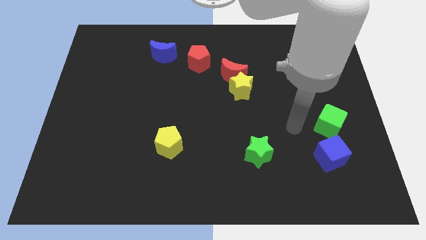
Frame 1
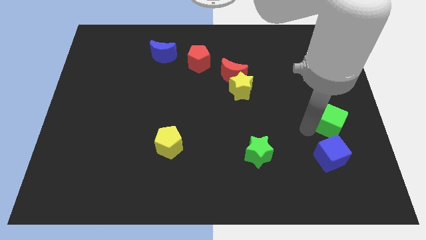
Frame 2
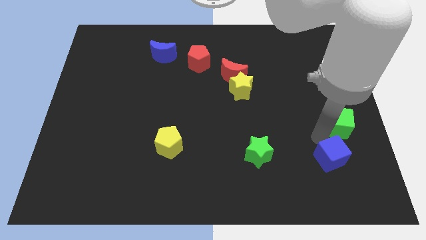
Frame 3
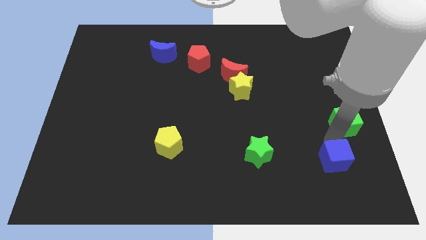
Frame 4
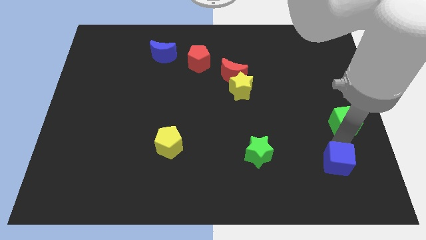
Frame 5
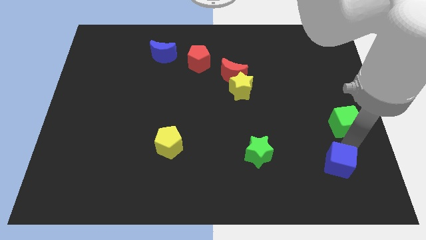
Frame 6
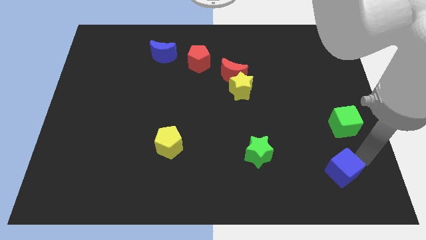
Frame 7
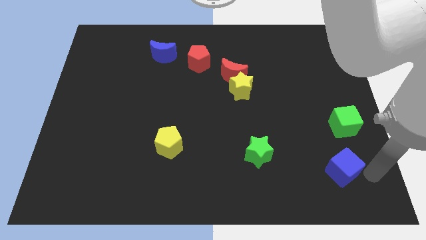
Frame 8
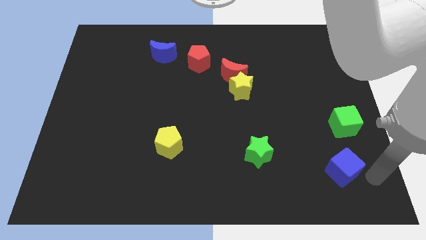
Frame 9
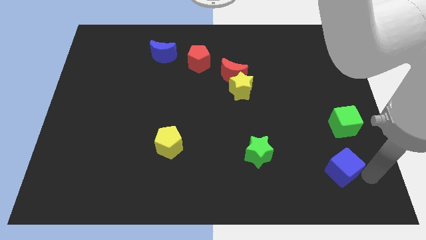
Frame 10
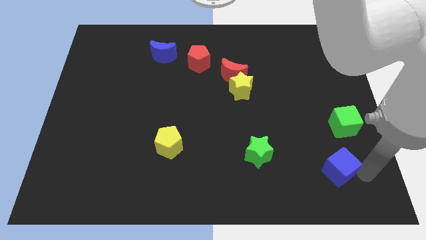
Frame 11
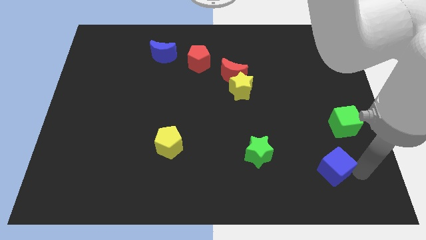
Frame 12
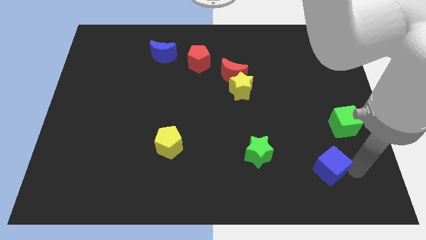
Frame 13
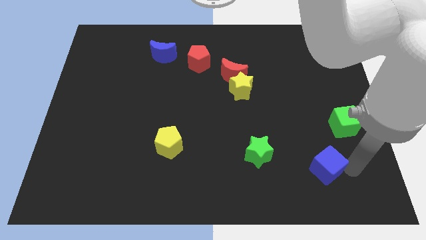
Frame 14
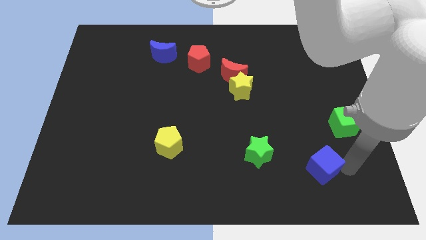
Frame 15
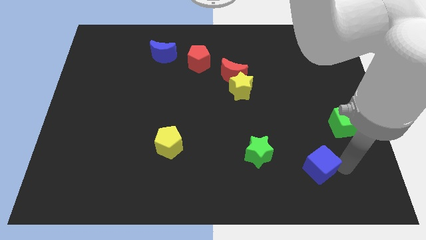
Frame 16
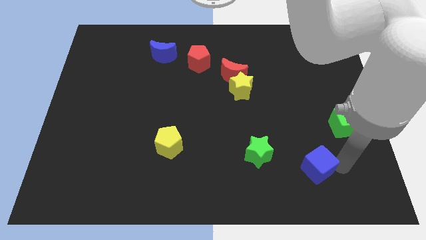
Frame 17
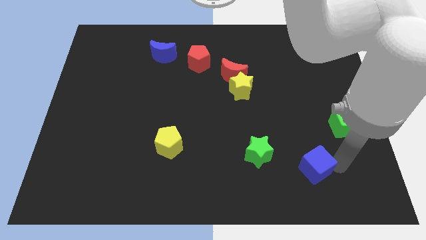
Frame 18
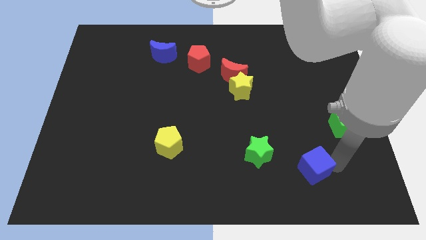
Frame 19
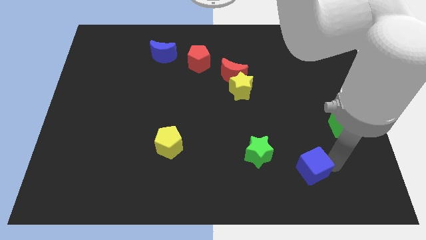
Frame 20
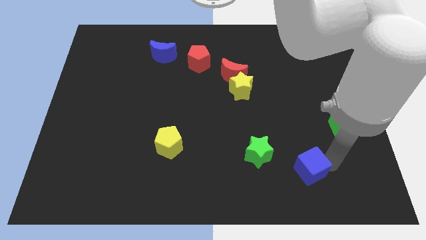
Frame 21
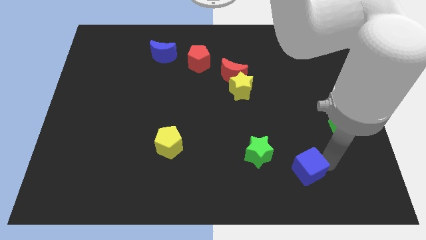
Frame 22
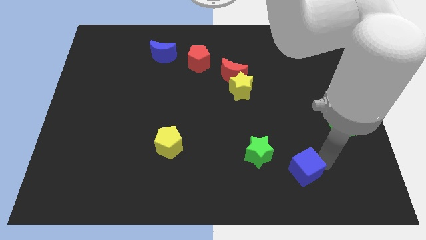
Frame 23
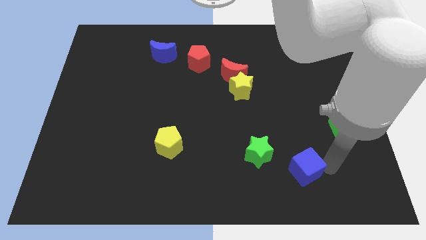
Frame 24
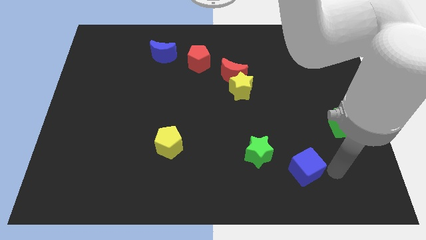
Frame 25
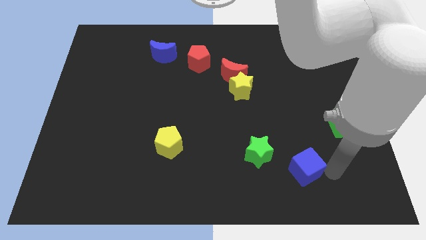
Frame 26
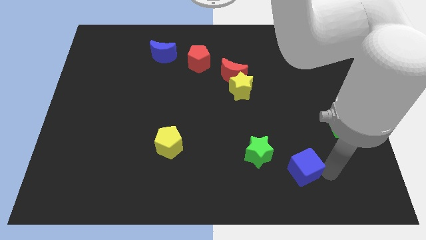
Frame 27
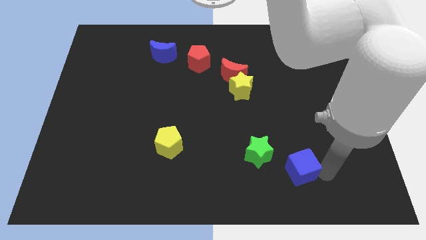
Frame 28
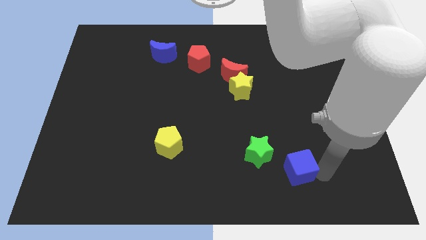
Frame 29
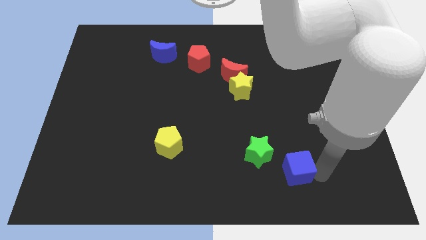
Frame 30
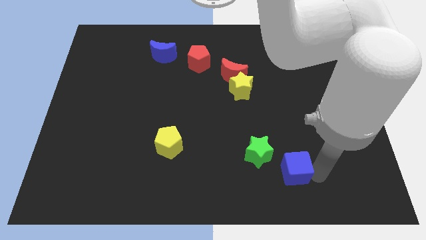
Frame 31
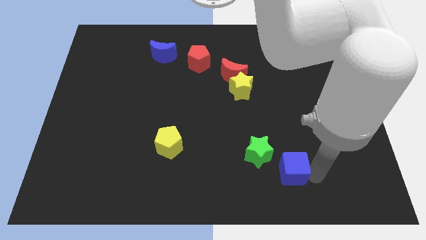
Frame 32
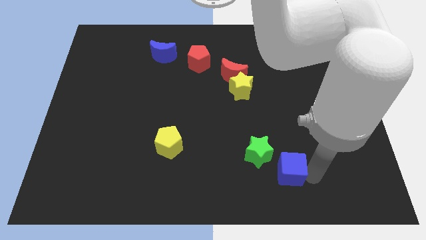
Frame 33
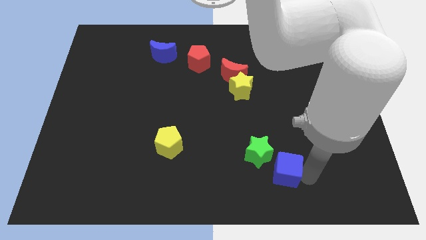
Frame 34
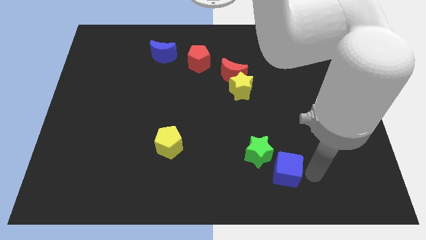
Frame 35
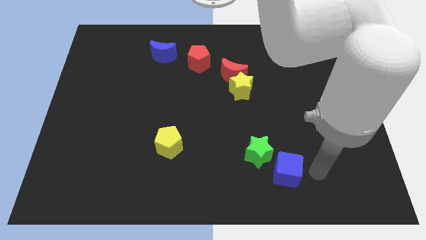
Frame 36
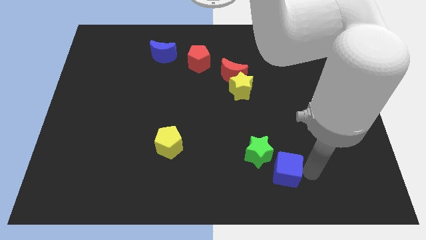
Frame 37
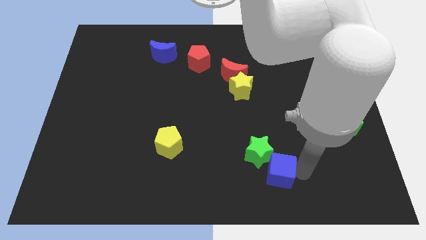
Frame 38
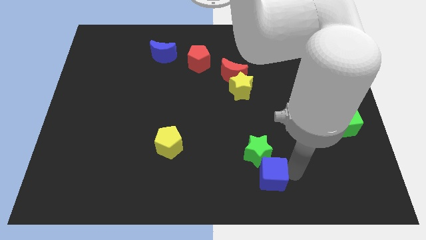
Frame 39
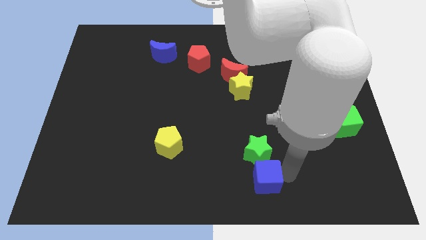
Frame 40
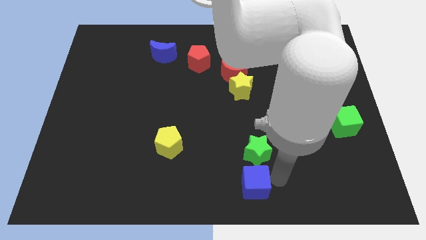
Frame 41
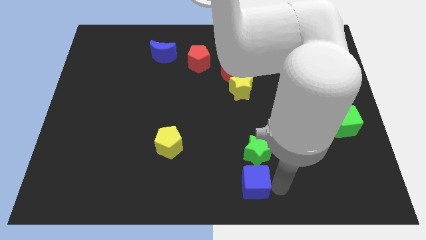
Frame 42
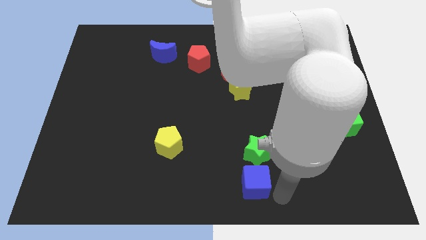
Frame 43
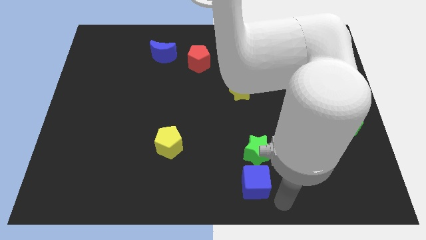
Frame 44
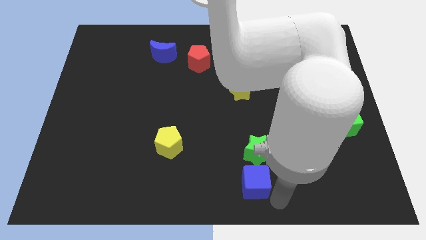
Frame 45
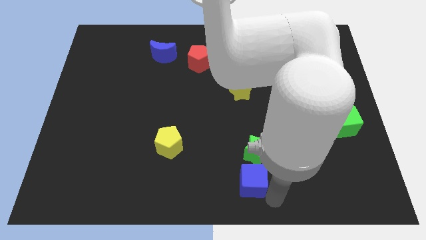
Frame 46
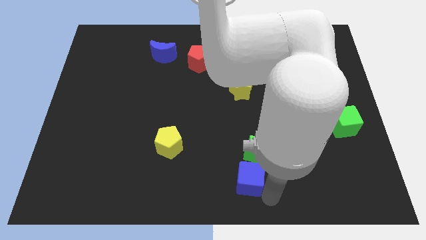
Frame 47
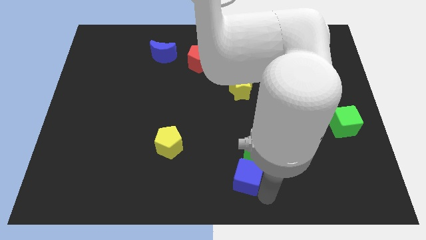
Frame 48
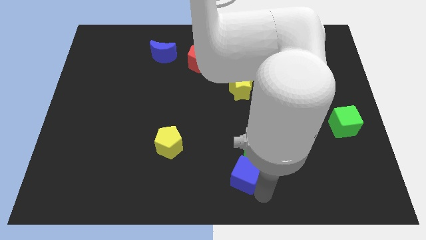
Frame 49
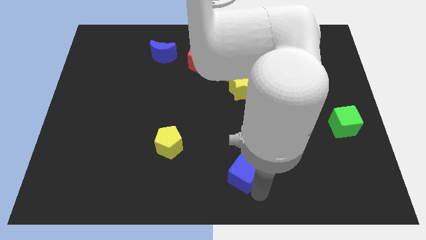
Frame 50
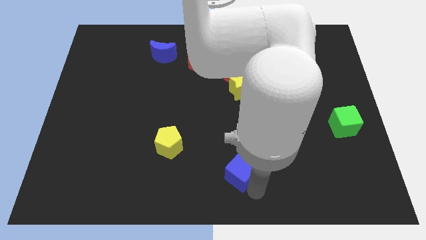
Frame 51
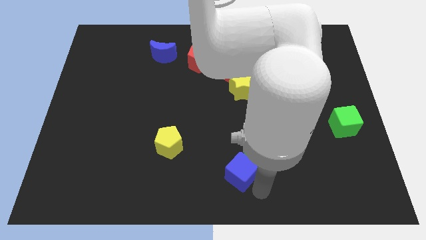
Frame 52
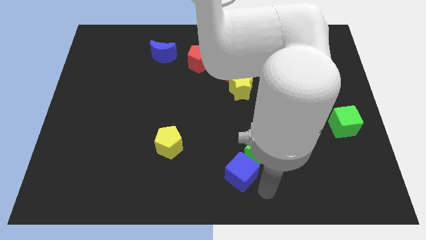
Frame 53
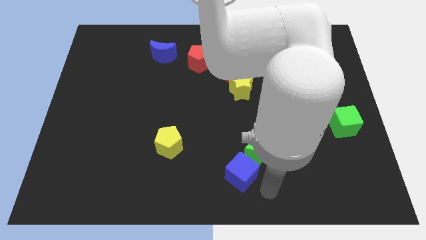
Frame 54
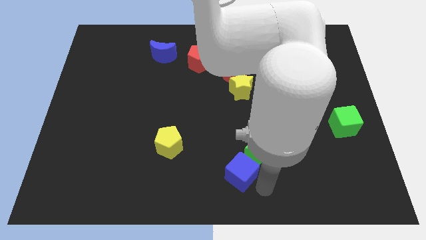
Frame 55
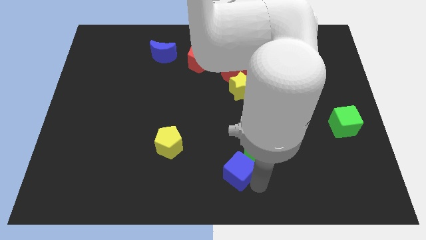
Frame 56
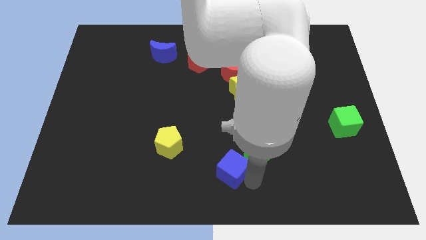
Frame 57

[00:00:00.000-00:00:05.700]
push the blue cube to the left side of the green star

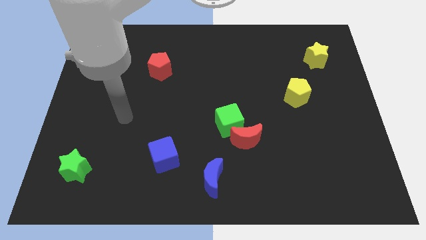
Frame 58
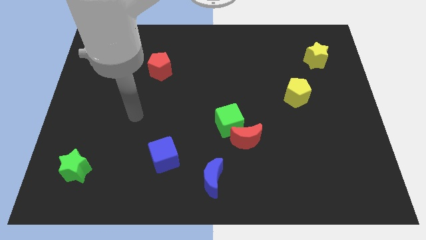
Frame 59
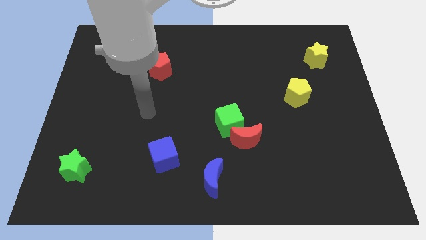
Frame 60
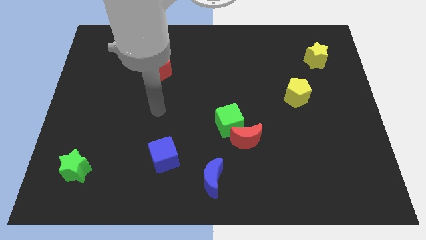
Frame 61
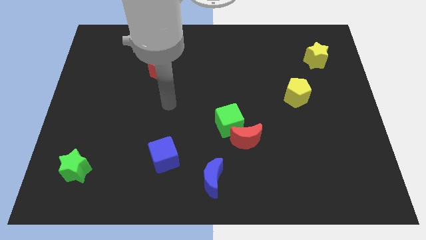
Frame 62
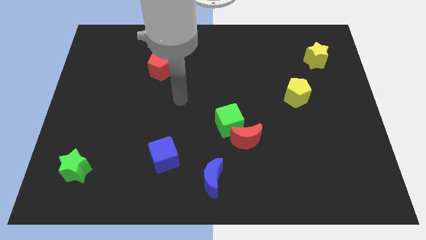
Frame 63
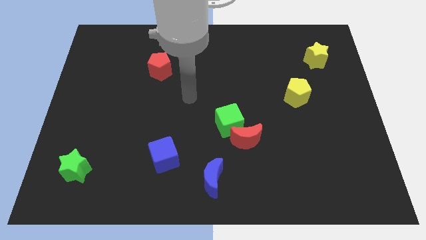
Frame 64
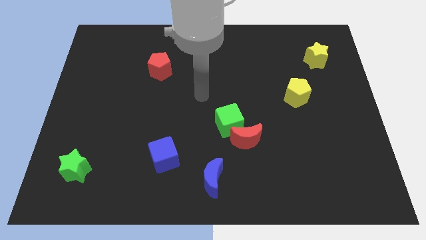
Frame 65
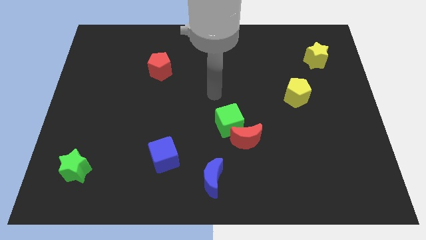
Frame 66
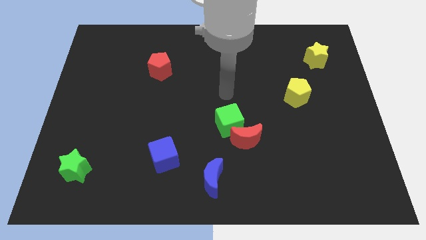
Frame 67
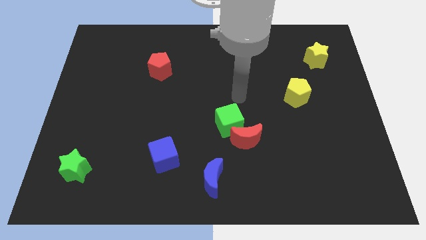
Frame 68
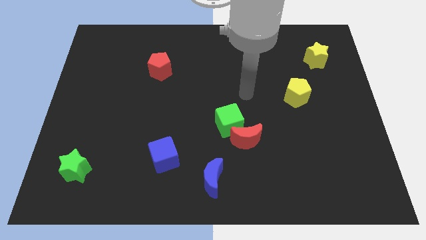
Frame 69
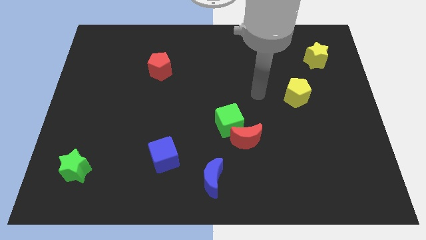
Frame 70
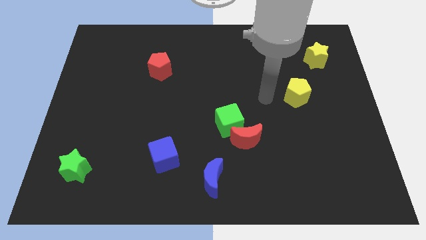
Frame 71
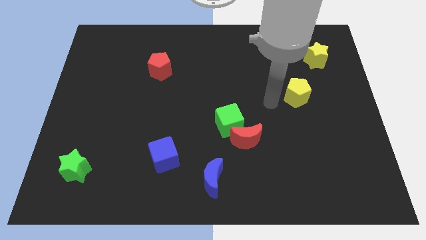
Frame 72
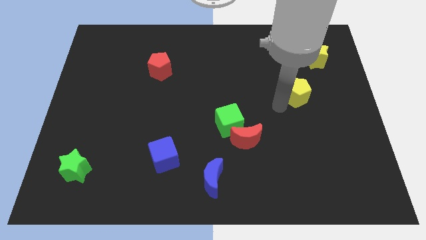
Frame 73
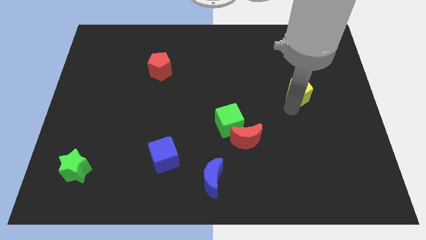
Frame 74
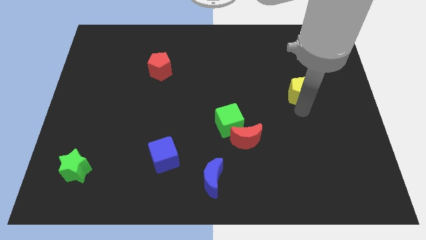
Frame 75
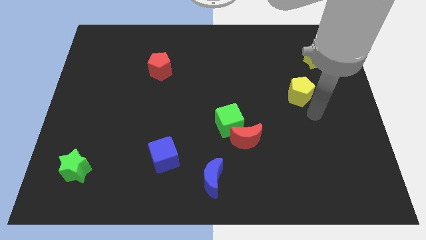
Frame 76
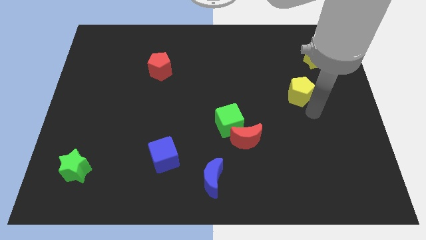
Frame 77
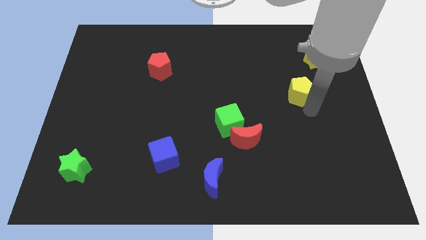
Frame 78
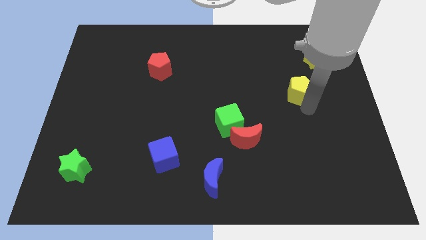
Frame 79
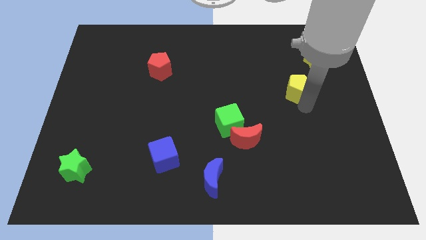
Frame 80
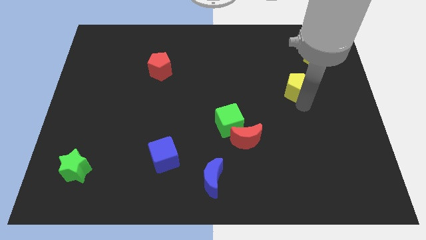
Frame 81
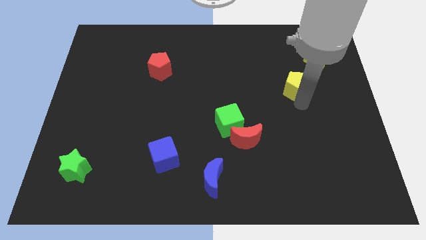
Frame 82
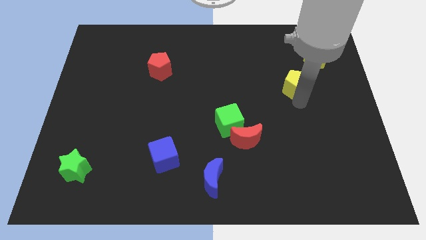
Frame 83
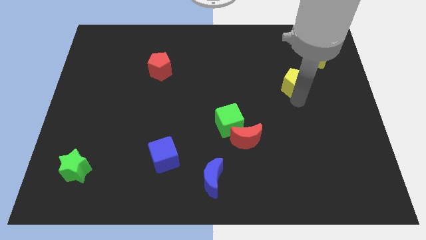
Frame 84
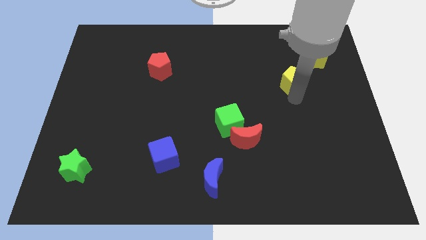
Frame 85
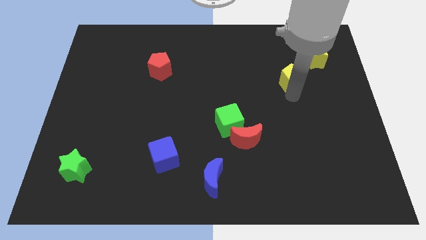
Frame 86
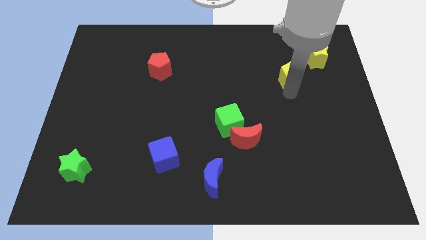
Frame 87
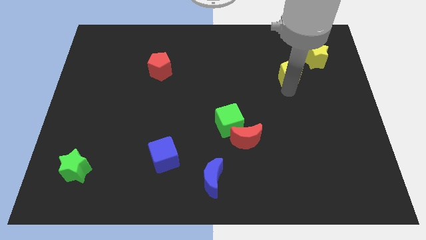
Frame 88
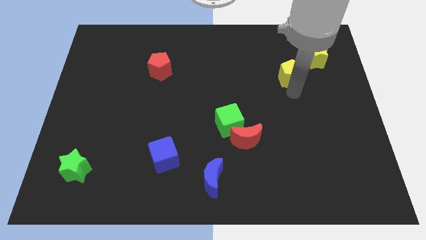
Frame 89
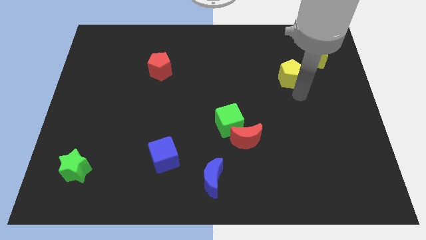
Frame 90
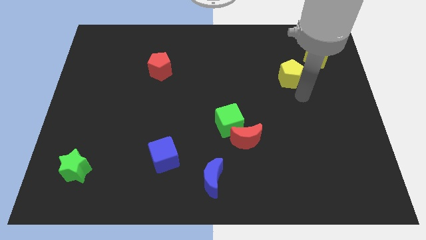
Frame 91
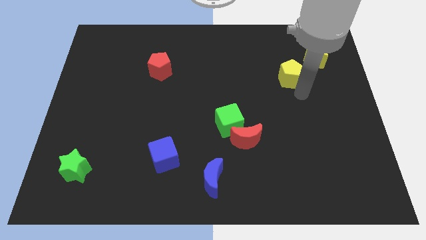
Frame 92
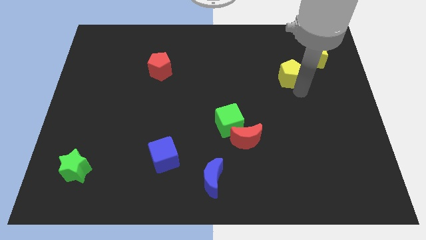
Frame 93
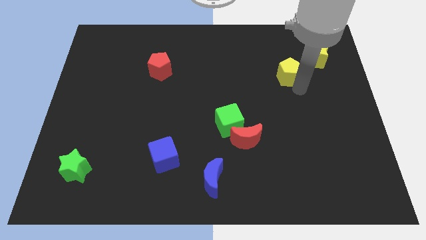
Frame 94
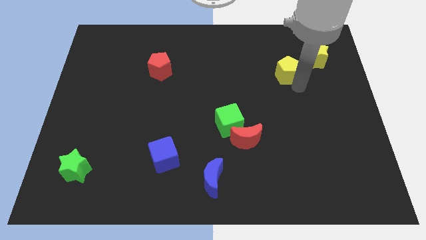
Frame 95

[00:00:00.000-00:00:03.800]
move the yellow pentagon left of the yellow star
